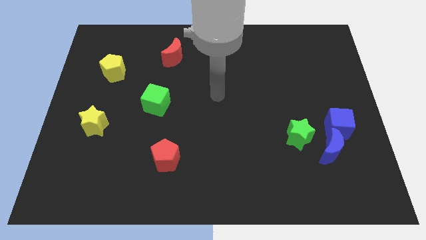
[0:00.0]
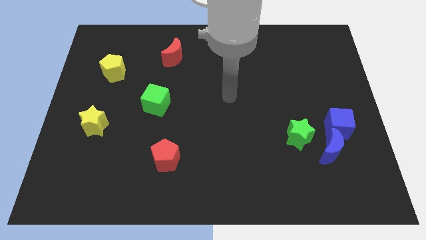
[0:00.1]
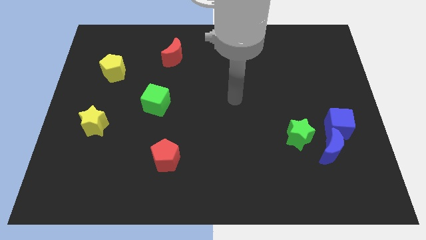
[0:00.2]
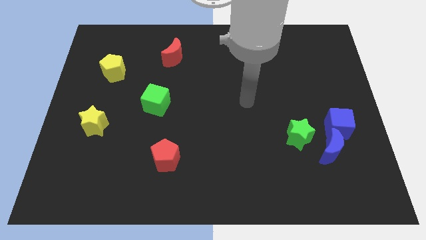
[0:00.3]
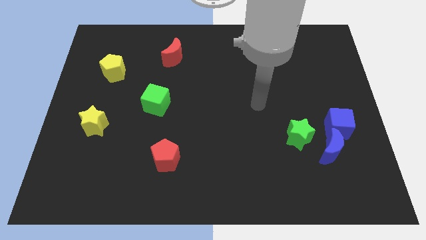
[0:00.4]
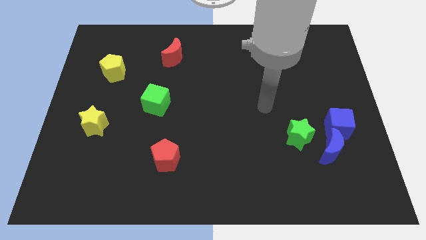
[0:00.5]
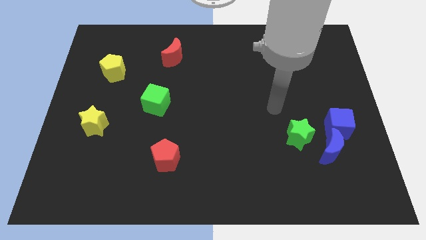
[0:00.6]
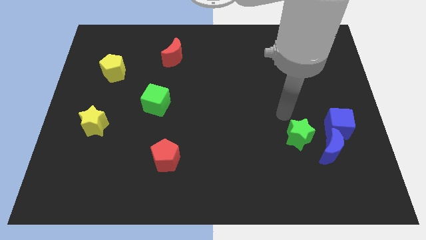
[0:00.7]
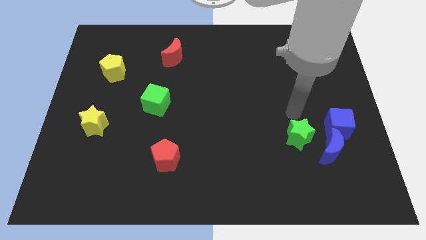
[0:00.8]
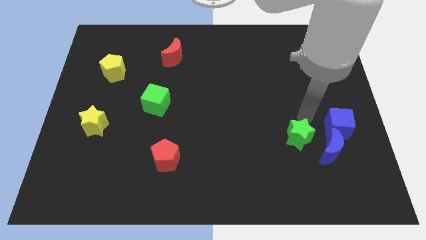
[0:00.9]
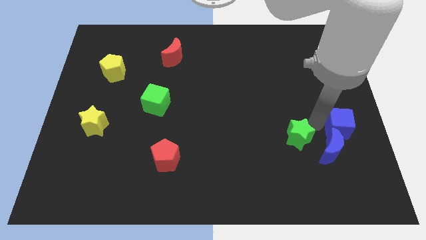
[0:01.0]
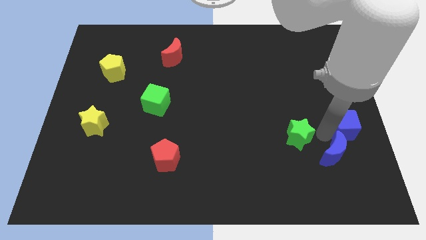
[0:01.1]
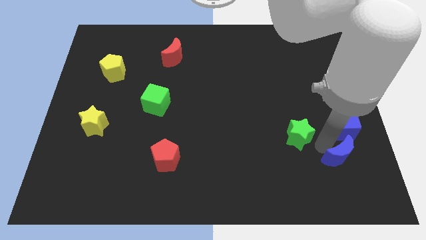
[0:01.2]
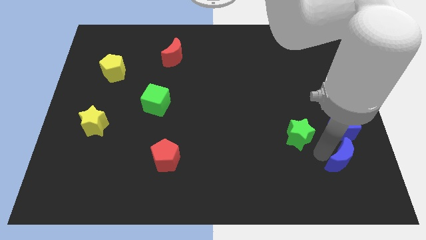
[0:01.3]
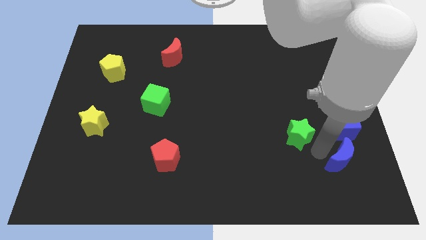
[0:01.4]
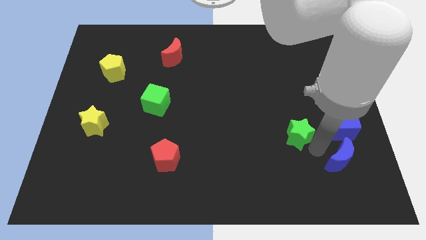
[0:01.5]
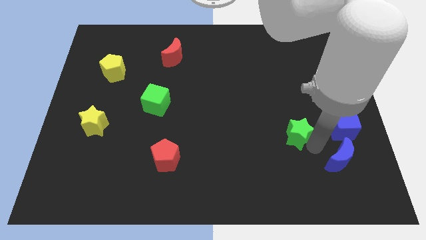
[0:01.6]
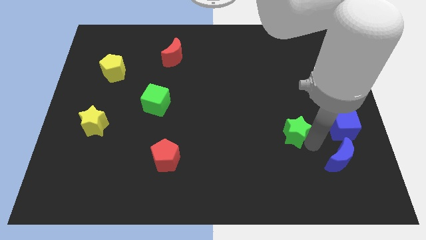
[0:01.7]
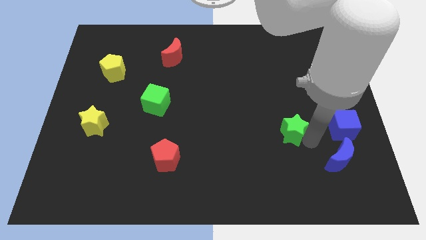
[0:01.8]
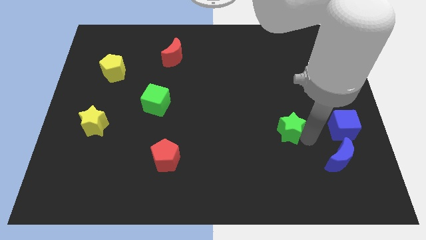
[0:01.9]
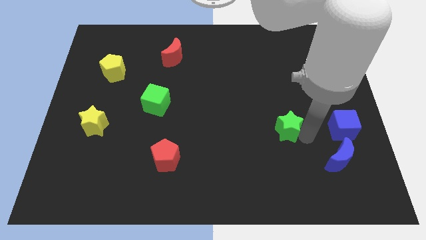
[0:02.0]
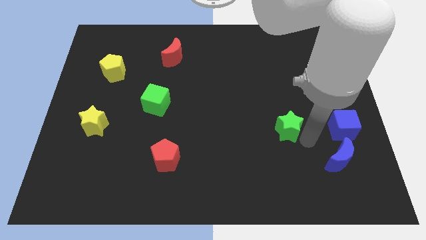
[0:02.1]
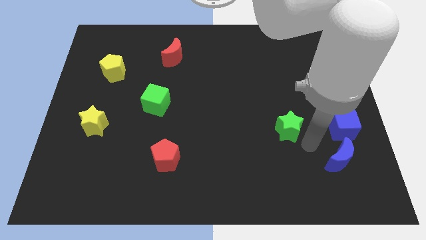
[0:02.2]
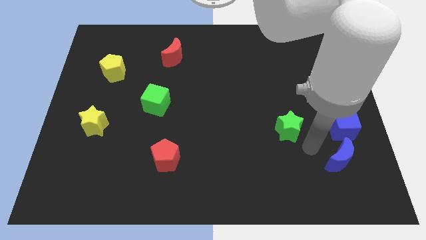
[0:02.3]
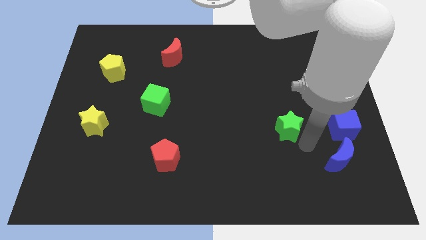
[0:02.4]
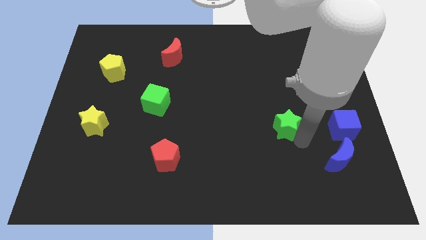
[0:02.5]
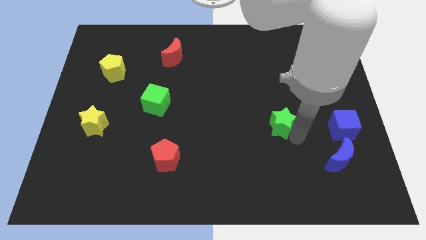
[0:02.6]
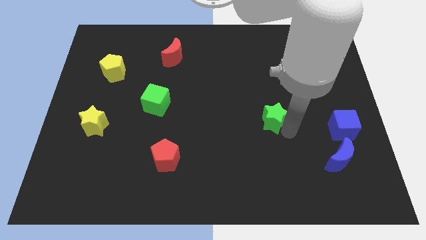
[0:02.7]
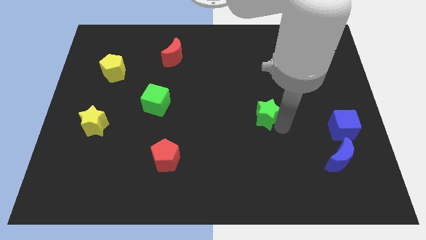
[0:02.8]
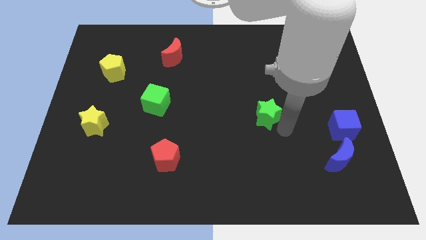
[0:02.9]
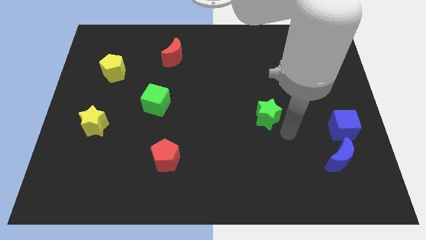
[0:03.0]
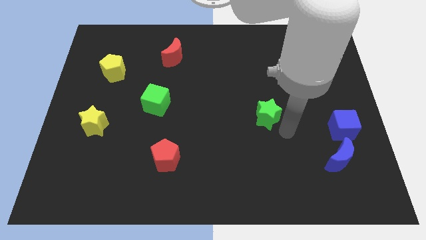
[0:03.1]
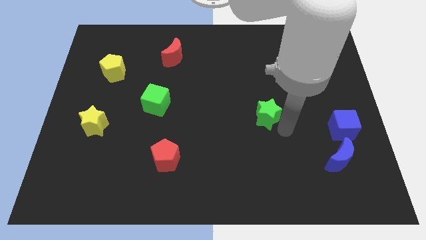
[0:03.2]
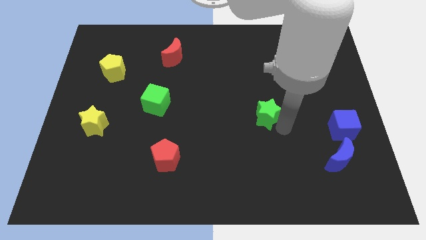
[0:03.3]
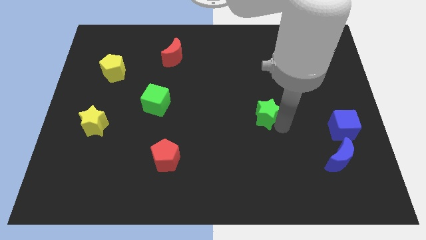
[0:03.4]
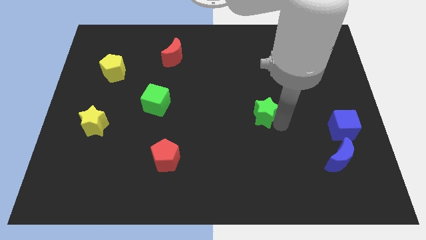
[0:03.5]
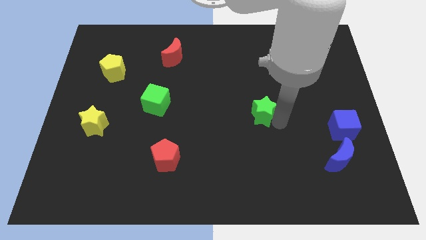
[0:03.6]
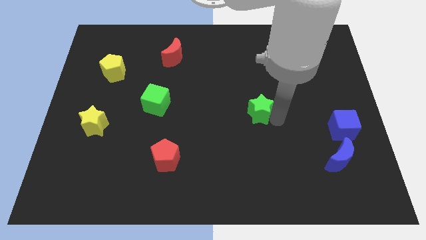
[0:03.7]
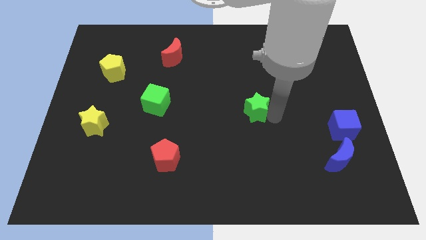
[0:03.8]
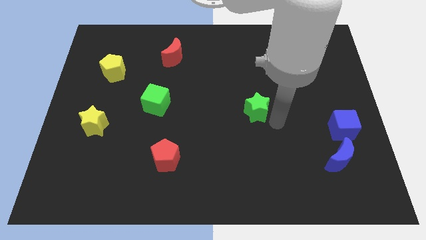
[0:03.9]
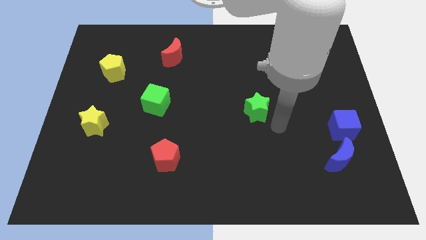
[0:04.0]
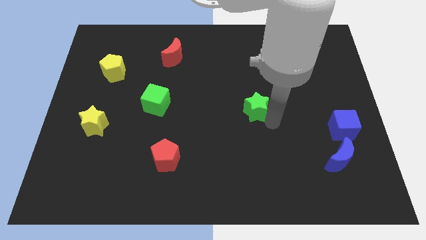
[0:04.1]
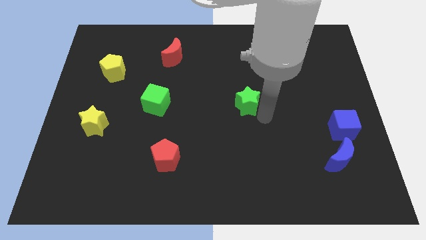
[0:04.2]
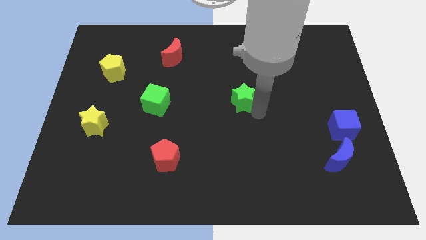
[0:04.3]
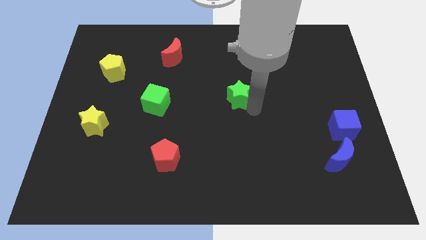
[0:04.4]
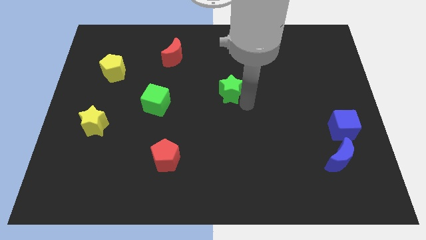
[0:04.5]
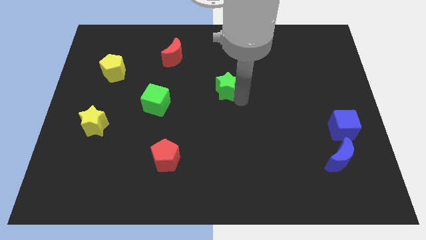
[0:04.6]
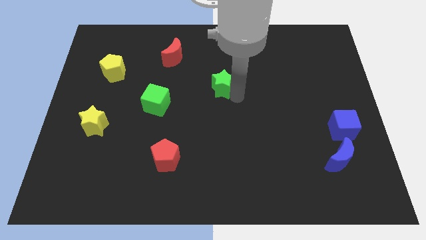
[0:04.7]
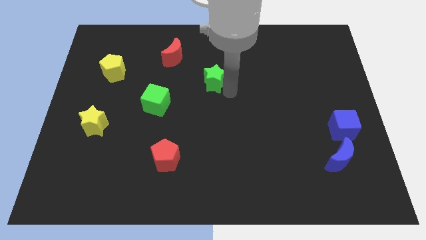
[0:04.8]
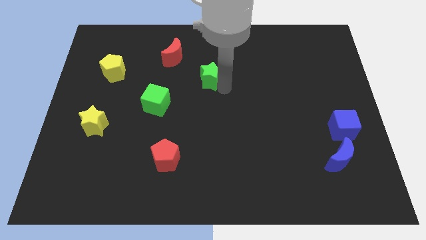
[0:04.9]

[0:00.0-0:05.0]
move the green star to the bottom right of the red moon
